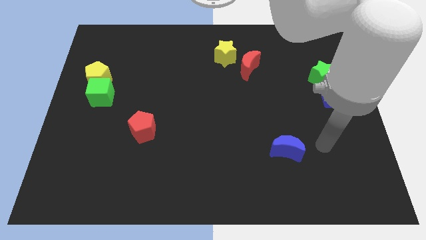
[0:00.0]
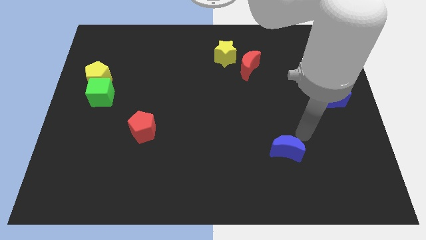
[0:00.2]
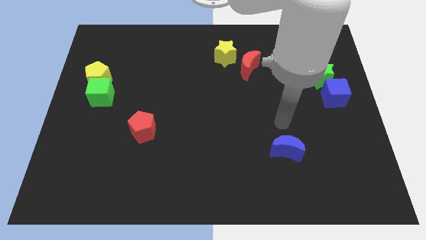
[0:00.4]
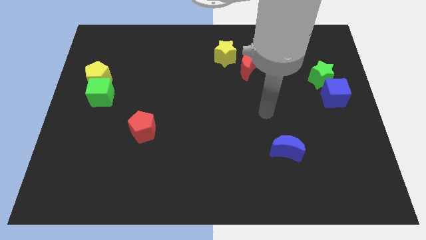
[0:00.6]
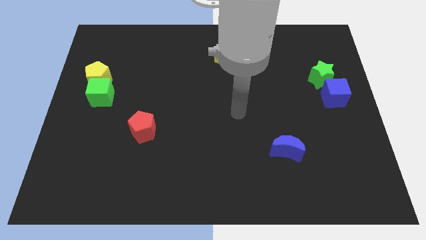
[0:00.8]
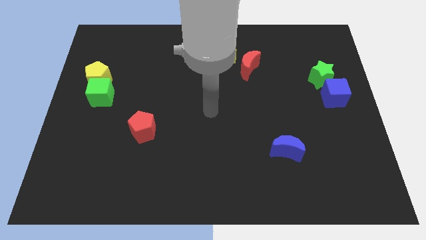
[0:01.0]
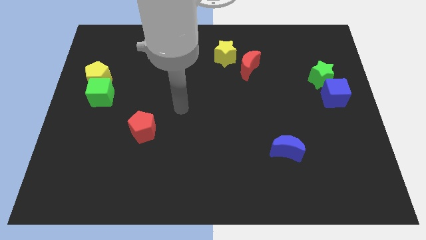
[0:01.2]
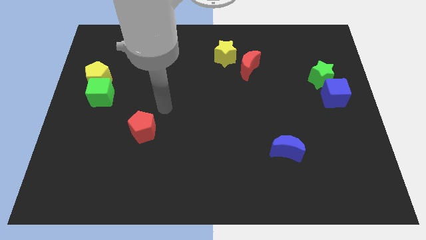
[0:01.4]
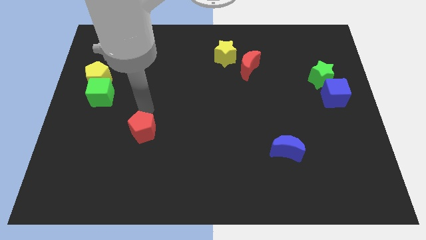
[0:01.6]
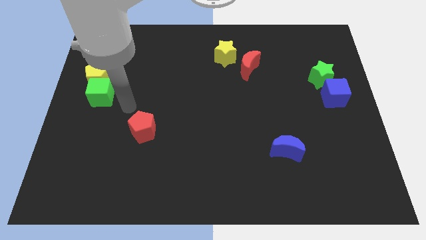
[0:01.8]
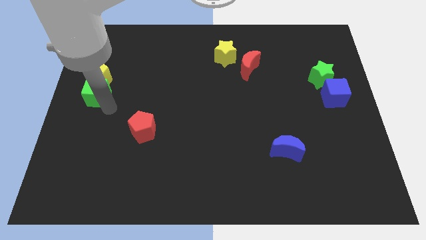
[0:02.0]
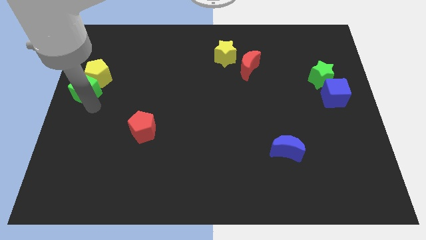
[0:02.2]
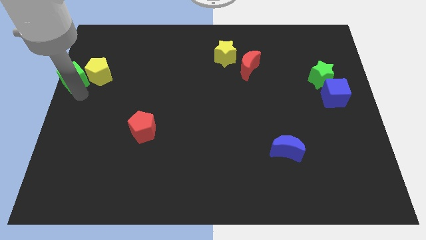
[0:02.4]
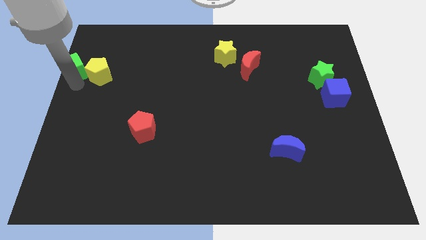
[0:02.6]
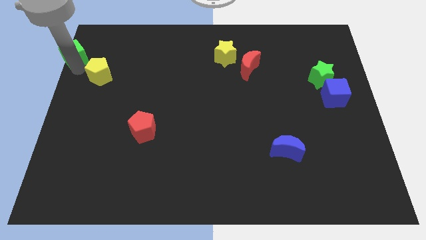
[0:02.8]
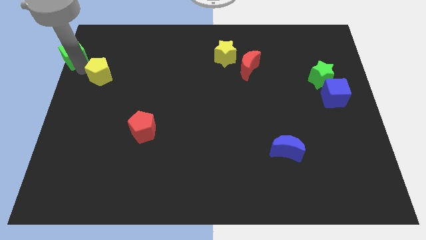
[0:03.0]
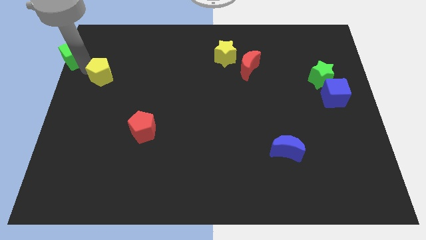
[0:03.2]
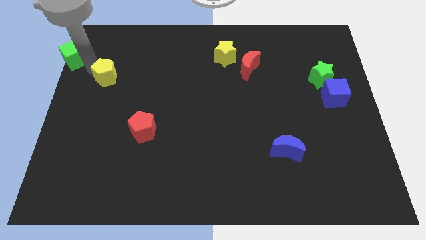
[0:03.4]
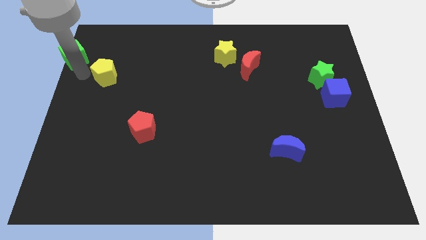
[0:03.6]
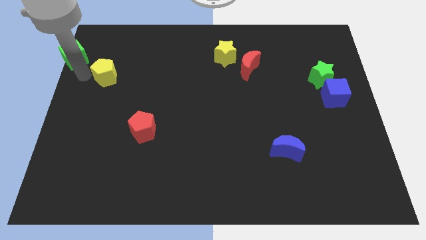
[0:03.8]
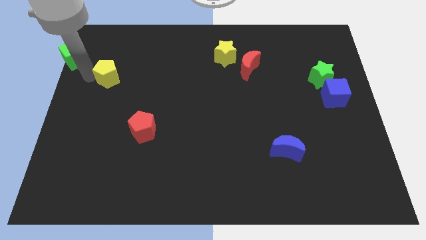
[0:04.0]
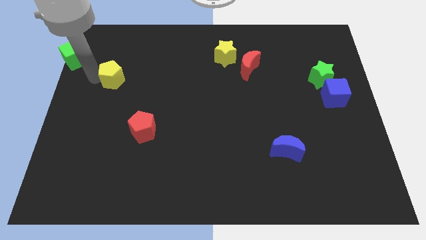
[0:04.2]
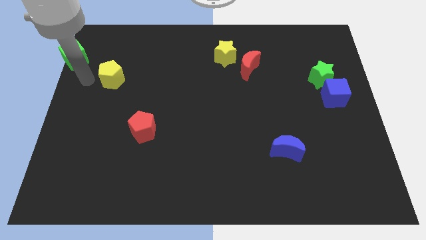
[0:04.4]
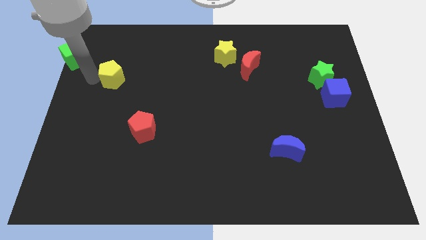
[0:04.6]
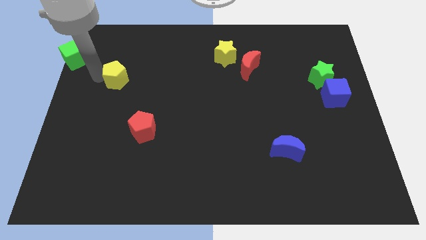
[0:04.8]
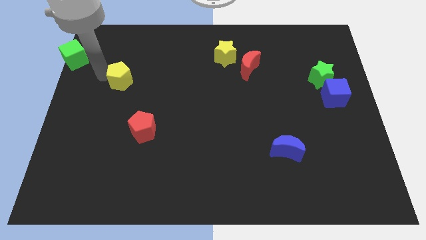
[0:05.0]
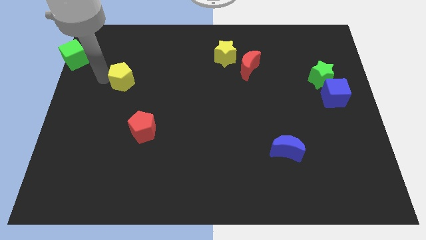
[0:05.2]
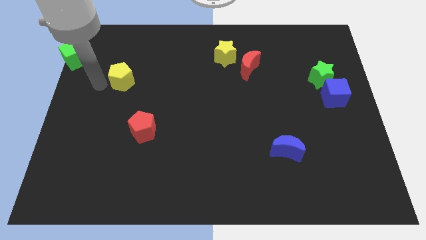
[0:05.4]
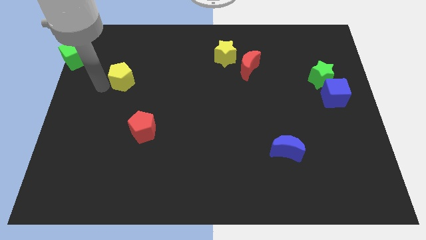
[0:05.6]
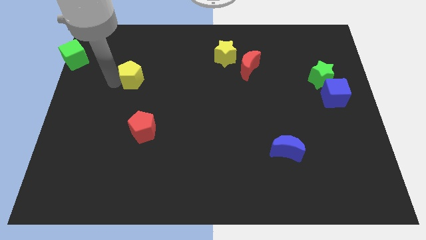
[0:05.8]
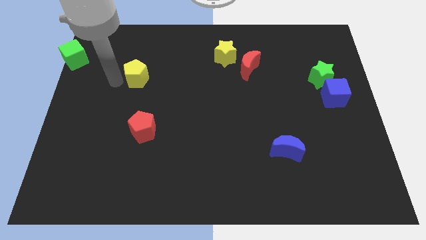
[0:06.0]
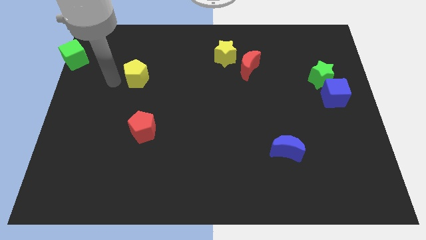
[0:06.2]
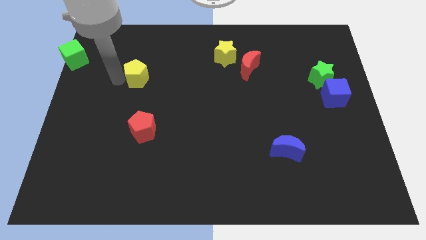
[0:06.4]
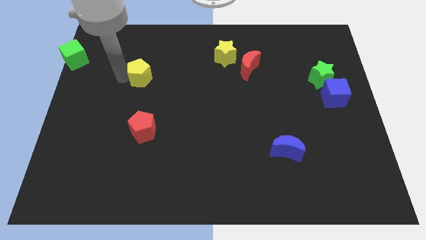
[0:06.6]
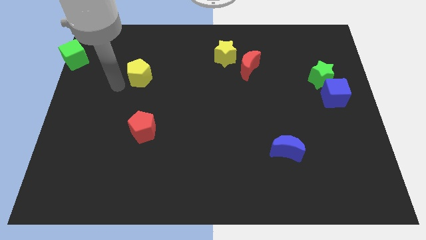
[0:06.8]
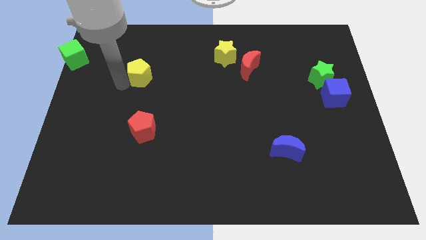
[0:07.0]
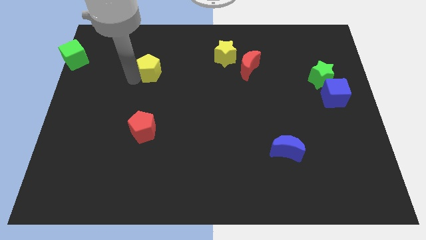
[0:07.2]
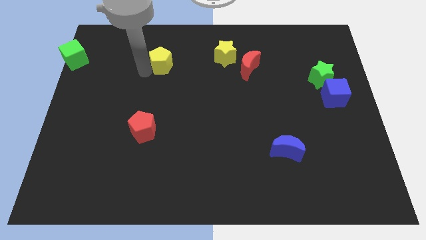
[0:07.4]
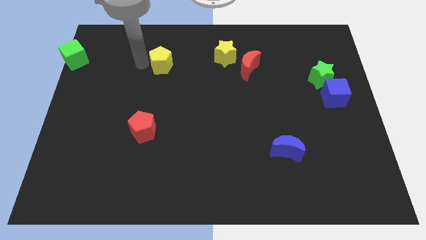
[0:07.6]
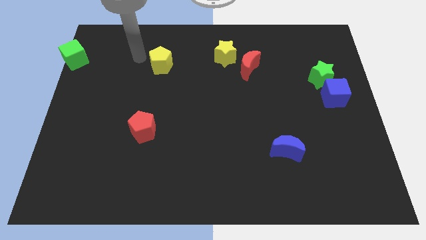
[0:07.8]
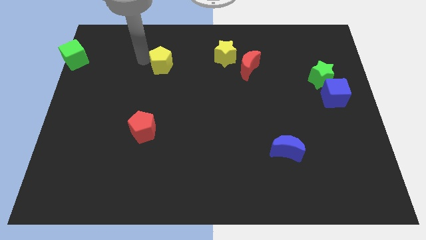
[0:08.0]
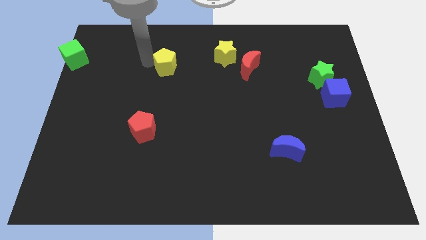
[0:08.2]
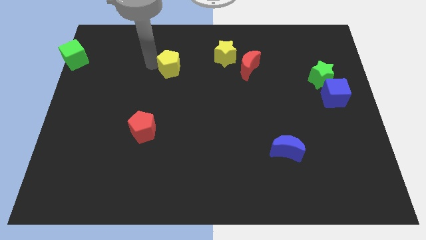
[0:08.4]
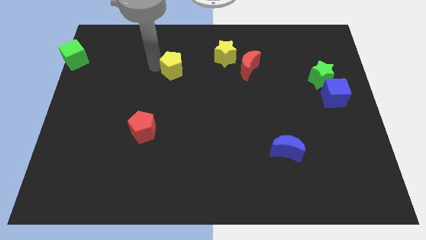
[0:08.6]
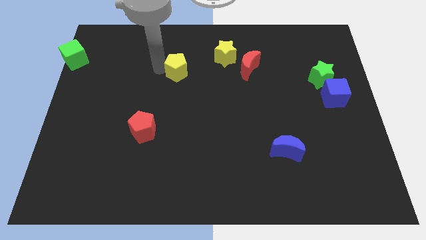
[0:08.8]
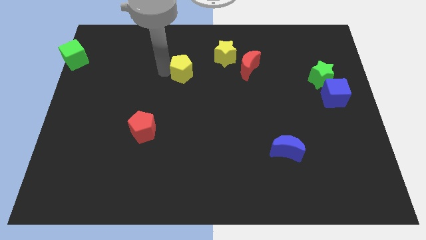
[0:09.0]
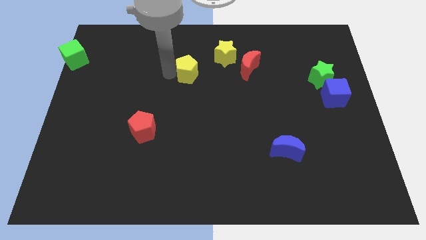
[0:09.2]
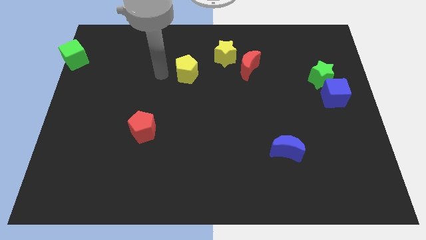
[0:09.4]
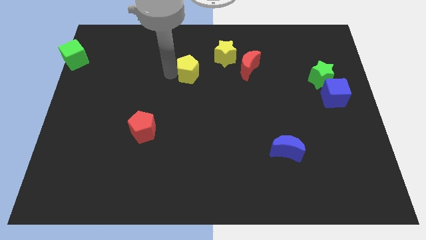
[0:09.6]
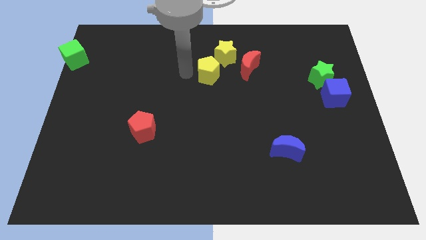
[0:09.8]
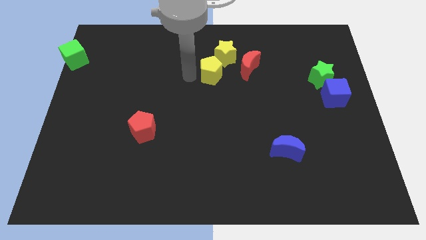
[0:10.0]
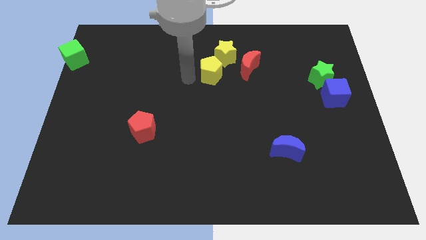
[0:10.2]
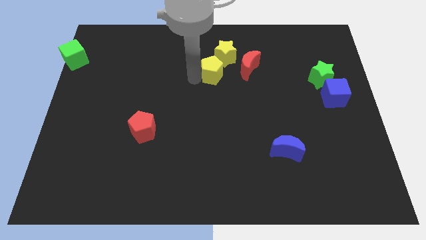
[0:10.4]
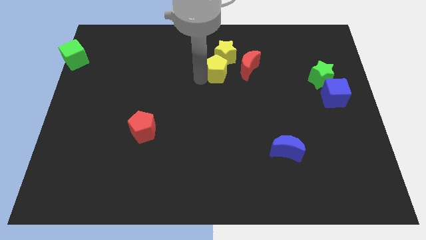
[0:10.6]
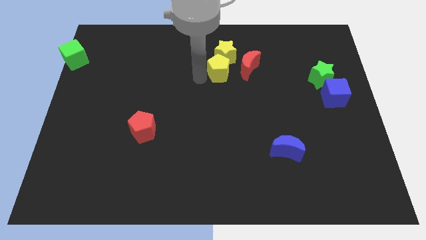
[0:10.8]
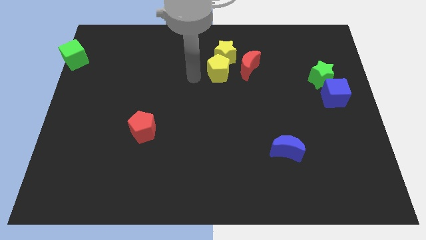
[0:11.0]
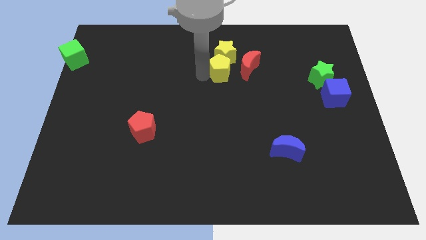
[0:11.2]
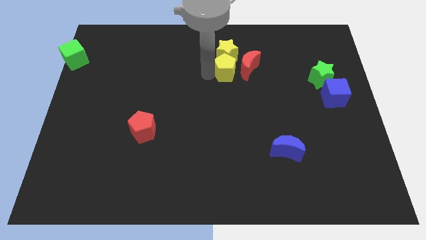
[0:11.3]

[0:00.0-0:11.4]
slide the yellow pentagon next to the red moon

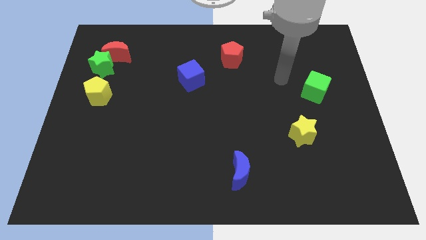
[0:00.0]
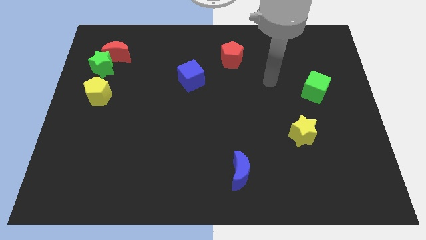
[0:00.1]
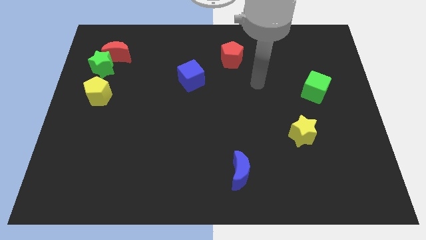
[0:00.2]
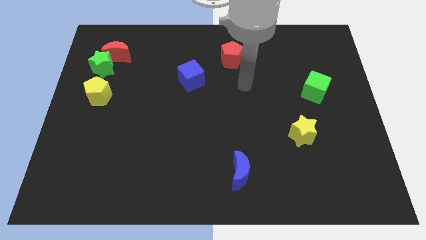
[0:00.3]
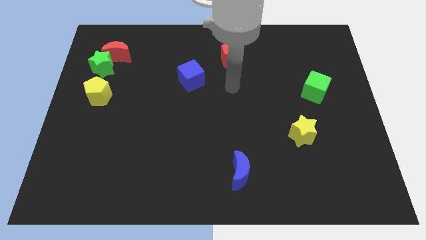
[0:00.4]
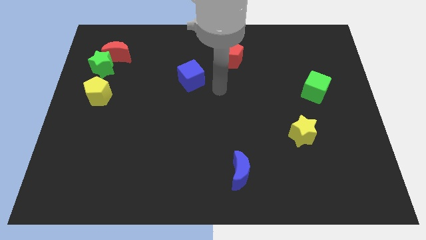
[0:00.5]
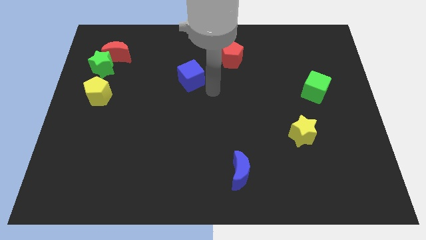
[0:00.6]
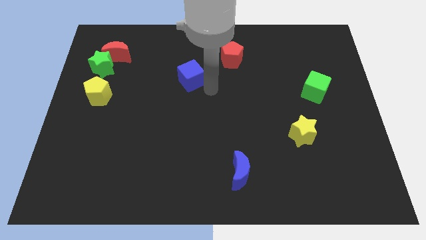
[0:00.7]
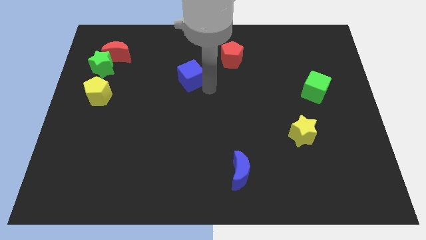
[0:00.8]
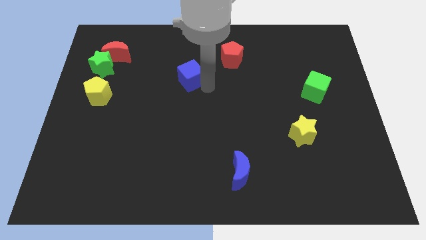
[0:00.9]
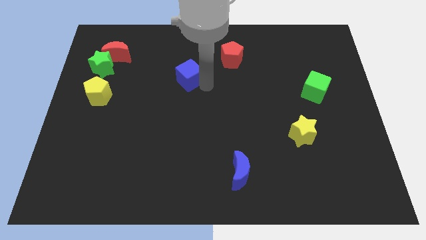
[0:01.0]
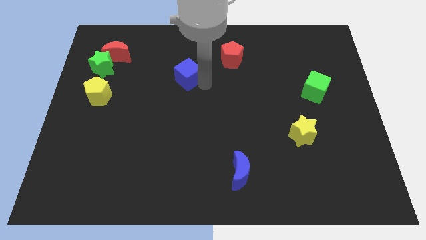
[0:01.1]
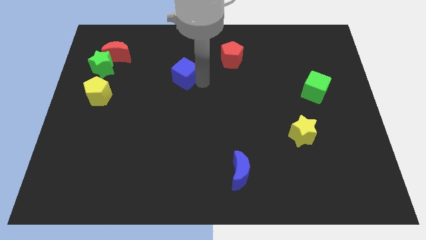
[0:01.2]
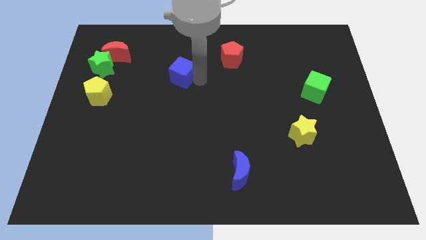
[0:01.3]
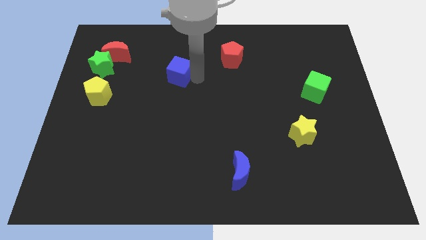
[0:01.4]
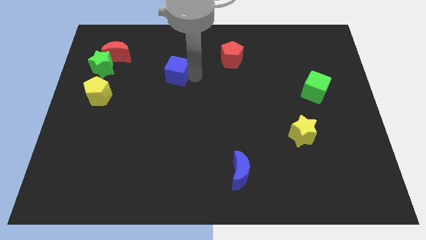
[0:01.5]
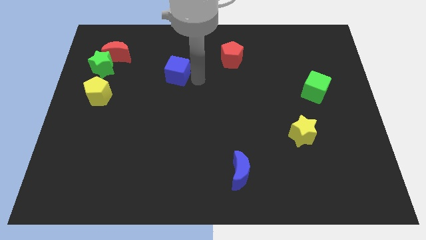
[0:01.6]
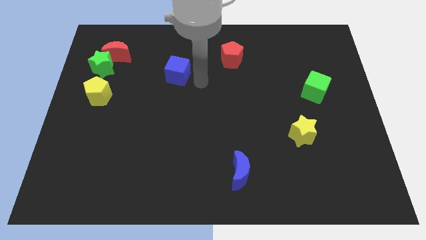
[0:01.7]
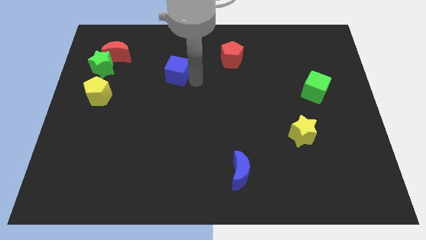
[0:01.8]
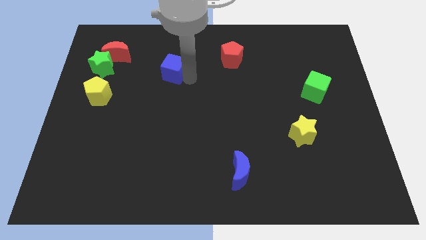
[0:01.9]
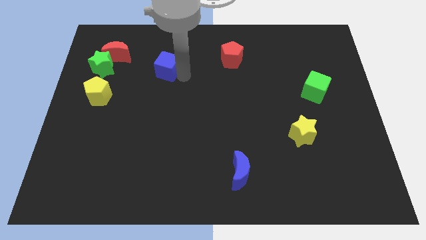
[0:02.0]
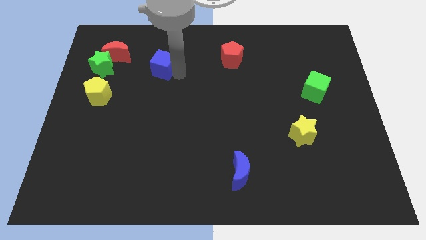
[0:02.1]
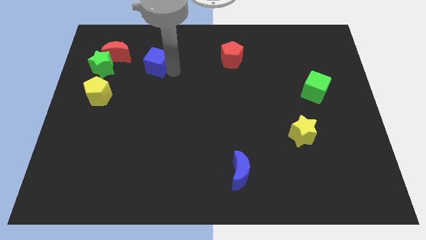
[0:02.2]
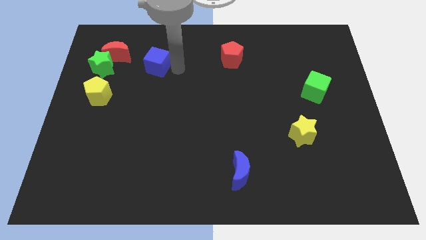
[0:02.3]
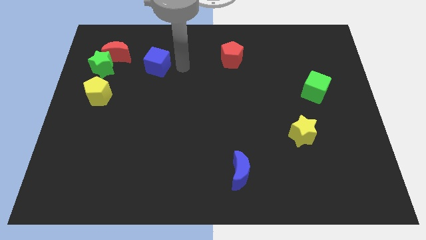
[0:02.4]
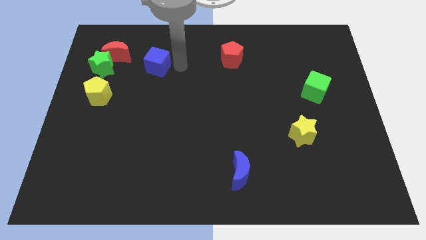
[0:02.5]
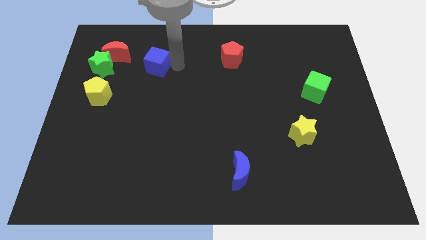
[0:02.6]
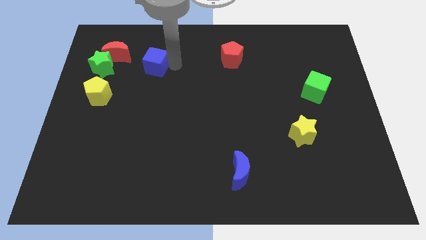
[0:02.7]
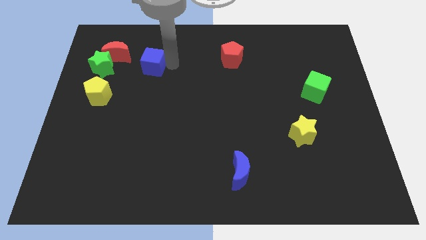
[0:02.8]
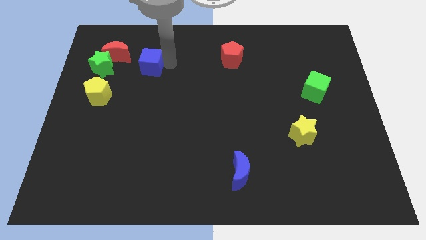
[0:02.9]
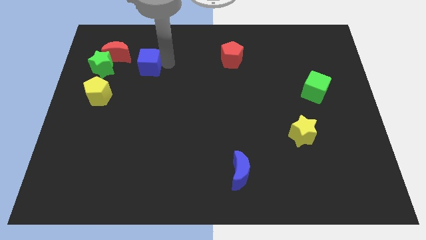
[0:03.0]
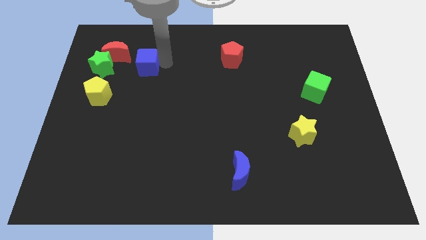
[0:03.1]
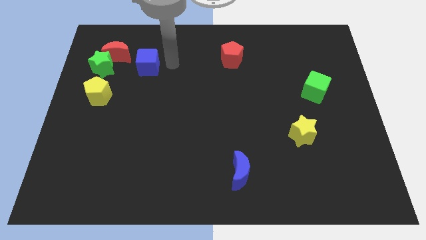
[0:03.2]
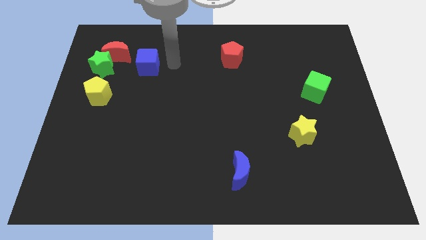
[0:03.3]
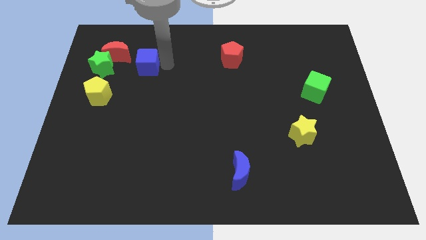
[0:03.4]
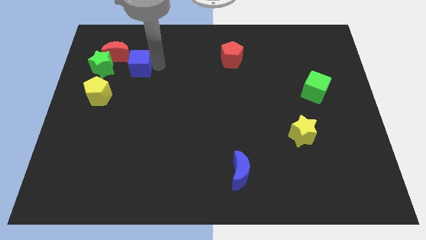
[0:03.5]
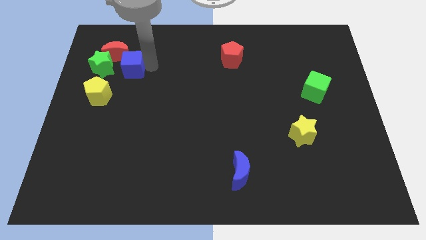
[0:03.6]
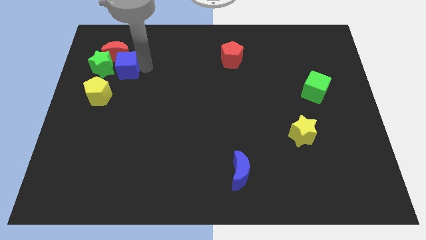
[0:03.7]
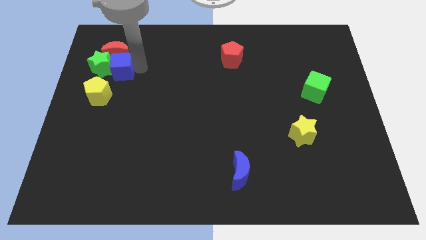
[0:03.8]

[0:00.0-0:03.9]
move the blue cube towards the green star
